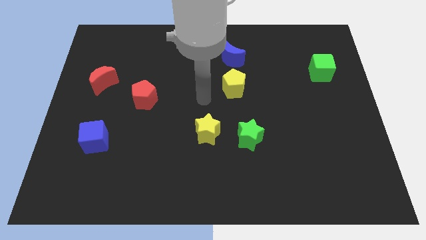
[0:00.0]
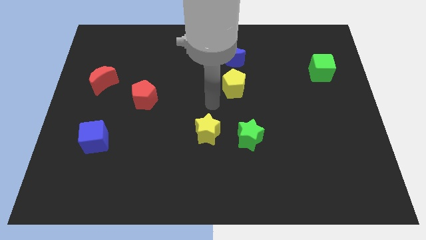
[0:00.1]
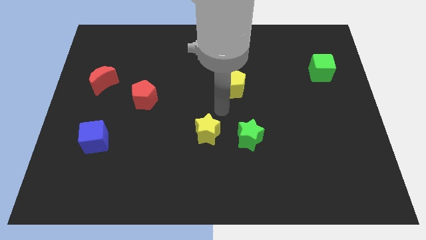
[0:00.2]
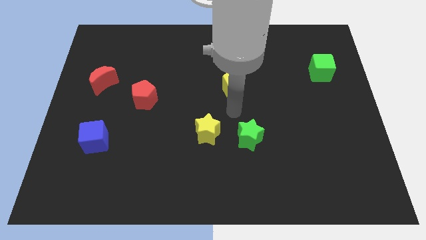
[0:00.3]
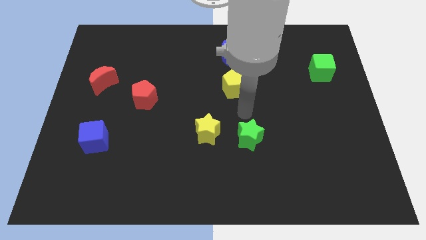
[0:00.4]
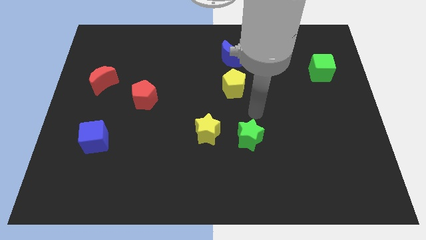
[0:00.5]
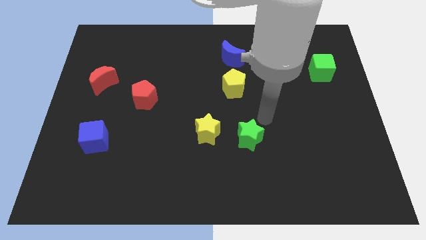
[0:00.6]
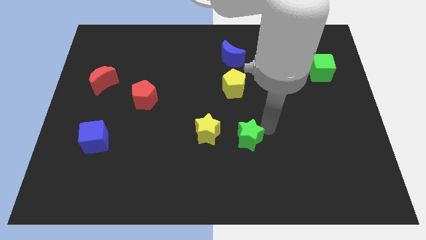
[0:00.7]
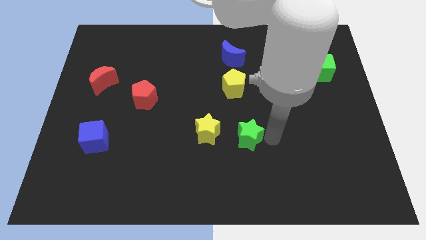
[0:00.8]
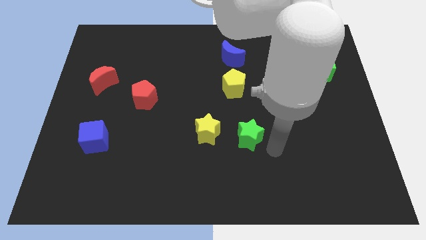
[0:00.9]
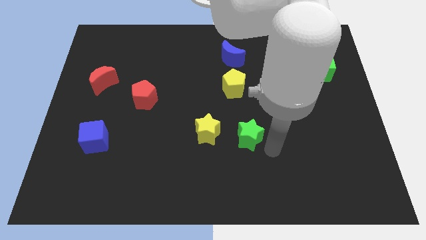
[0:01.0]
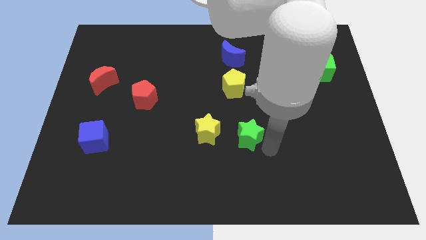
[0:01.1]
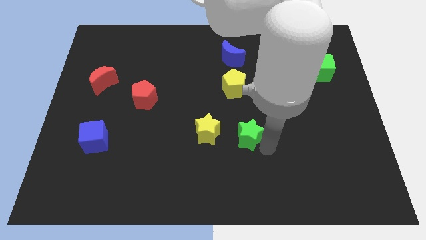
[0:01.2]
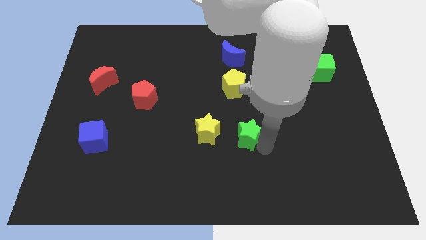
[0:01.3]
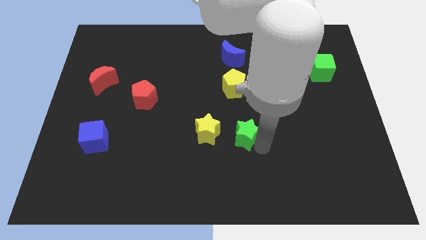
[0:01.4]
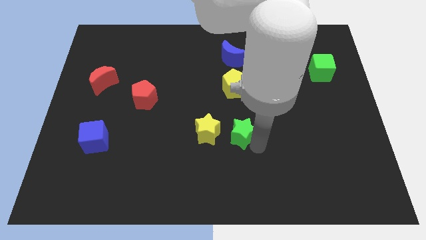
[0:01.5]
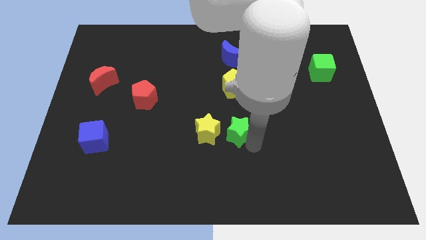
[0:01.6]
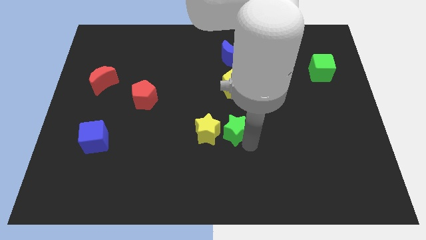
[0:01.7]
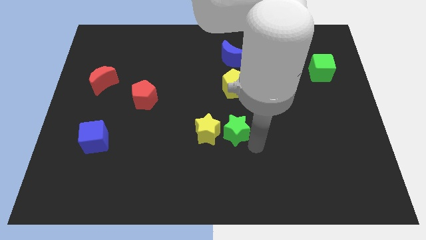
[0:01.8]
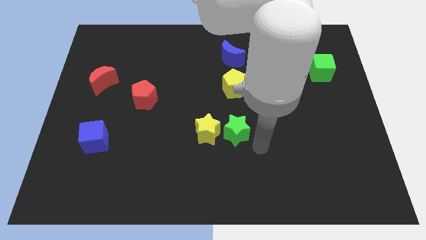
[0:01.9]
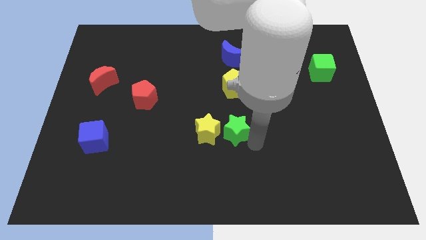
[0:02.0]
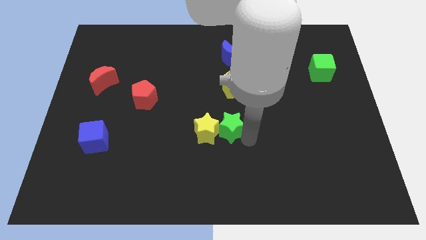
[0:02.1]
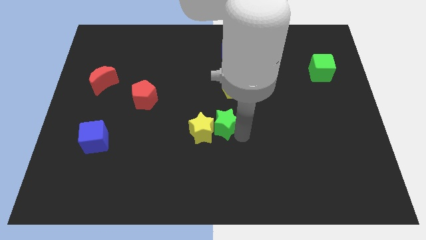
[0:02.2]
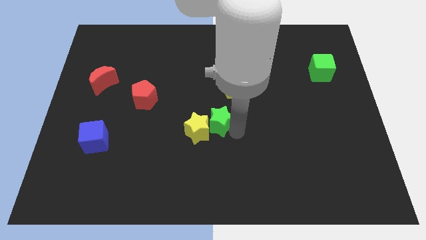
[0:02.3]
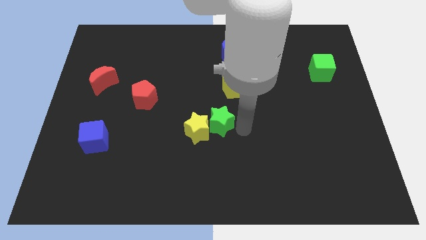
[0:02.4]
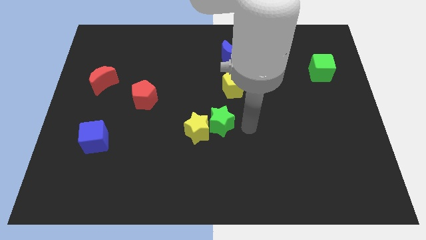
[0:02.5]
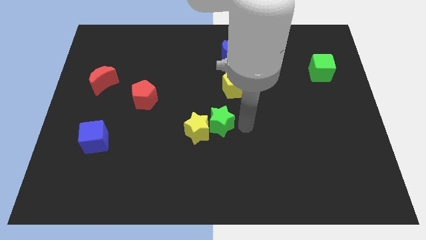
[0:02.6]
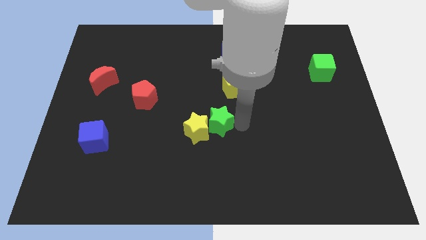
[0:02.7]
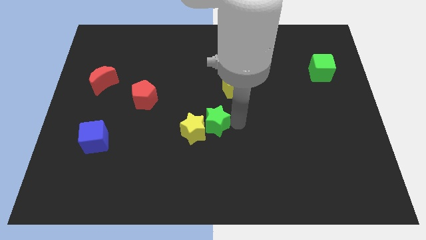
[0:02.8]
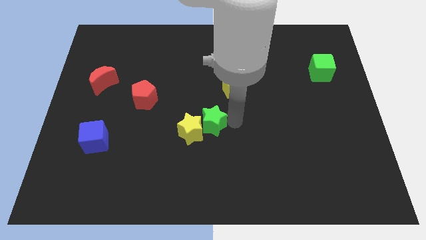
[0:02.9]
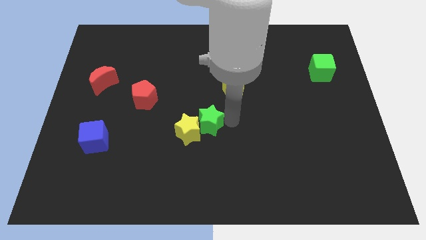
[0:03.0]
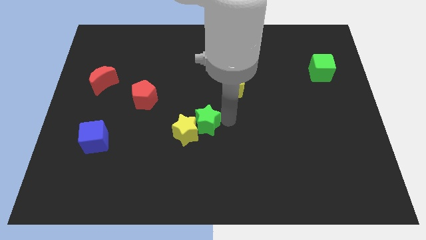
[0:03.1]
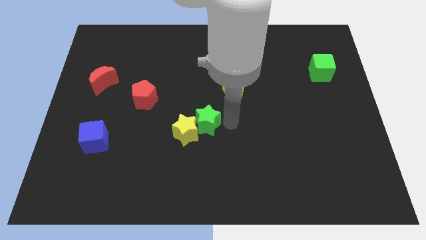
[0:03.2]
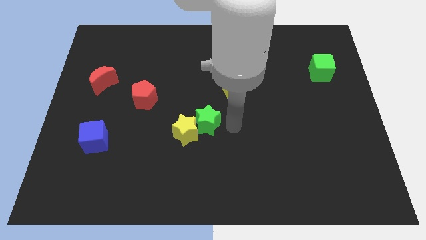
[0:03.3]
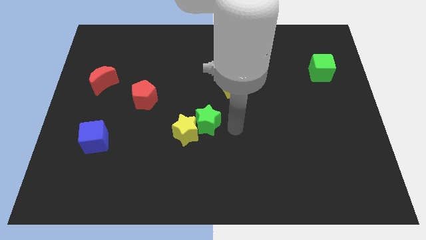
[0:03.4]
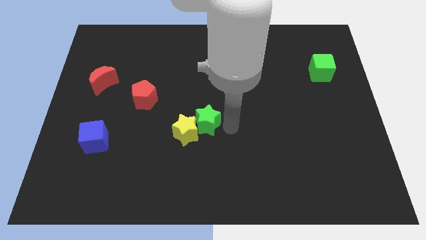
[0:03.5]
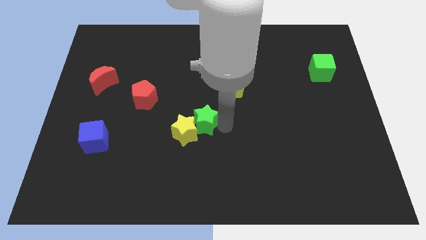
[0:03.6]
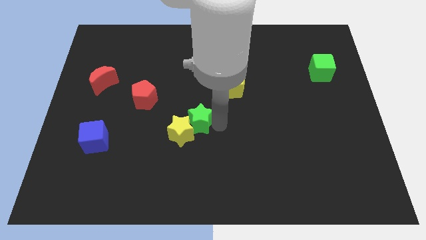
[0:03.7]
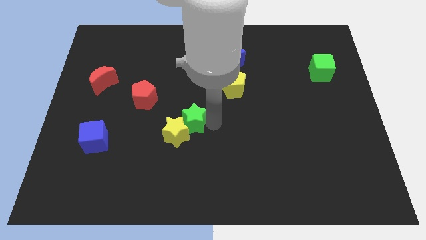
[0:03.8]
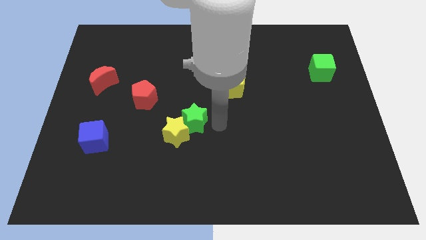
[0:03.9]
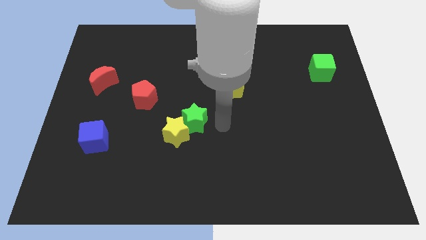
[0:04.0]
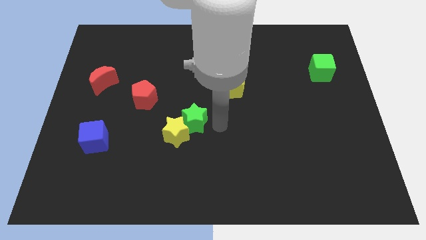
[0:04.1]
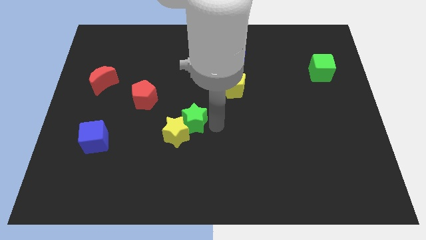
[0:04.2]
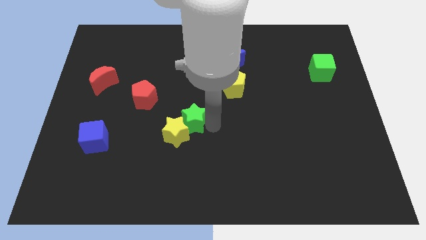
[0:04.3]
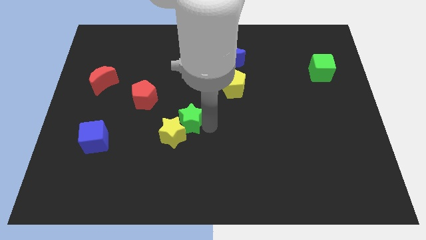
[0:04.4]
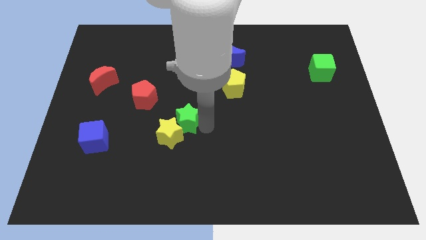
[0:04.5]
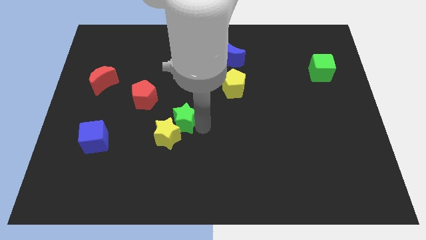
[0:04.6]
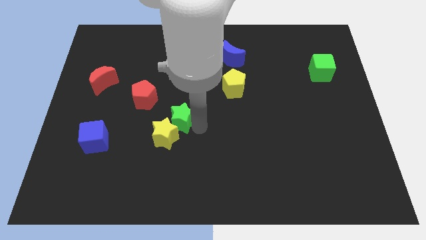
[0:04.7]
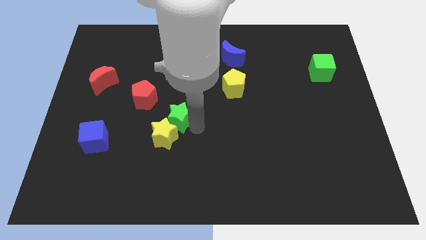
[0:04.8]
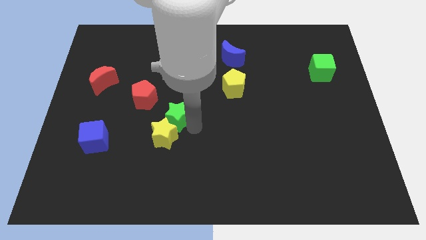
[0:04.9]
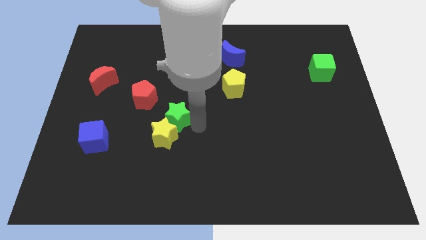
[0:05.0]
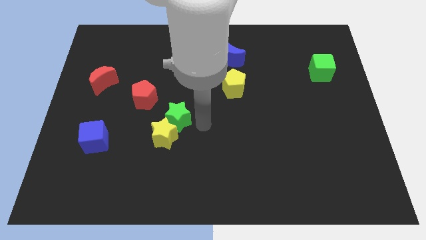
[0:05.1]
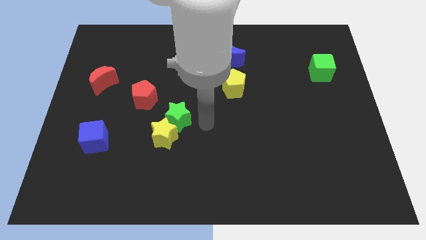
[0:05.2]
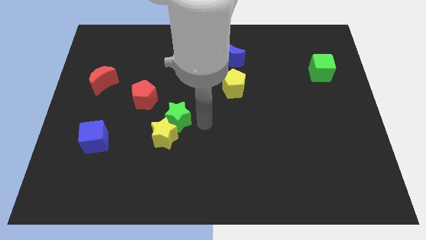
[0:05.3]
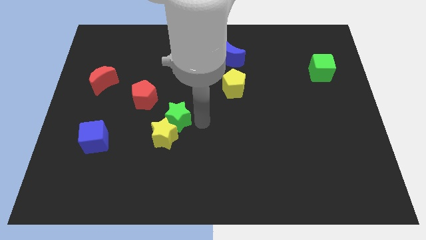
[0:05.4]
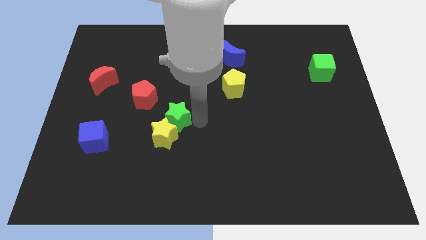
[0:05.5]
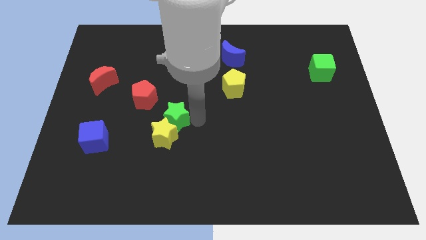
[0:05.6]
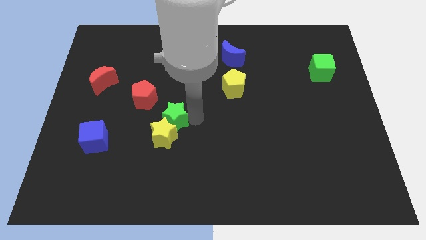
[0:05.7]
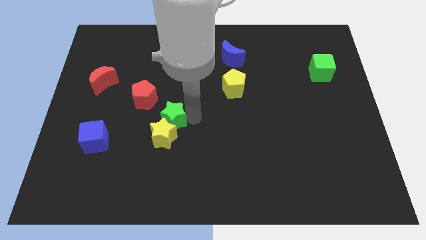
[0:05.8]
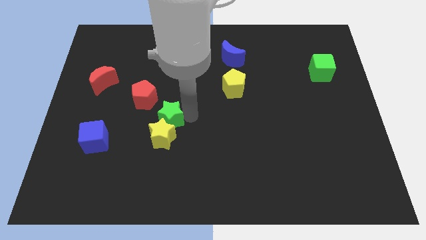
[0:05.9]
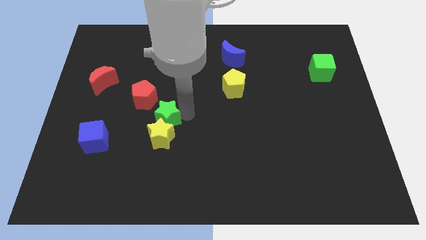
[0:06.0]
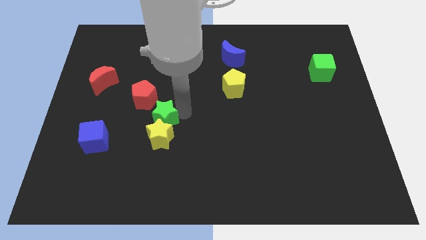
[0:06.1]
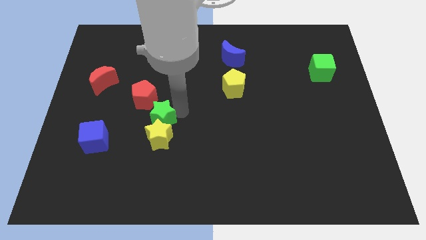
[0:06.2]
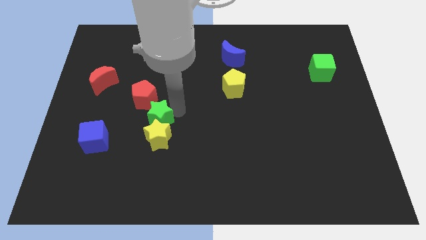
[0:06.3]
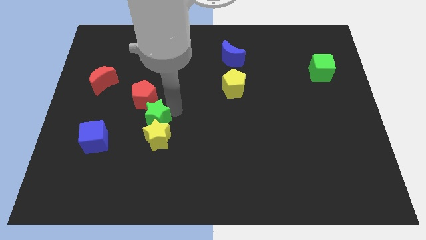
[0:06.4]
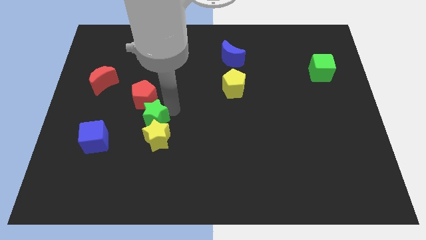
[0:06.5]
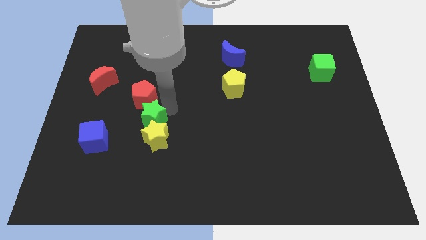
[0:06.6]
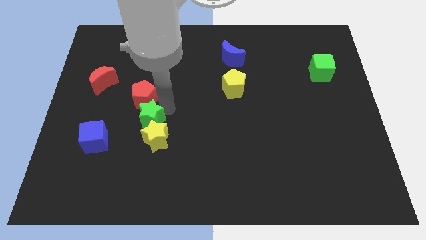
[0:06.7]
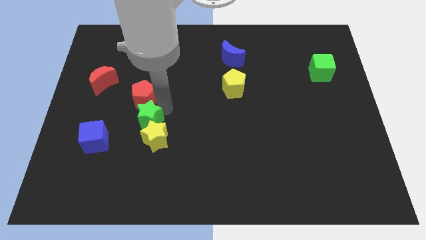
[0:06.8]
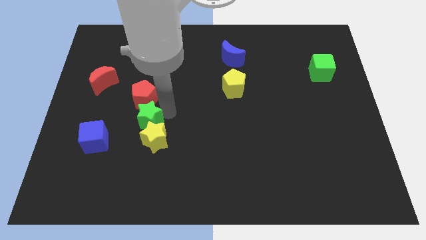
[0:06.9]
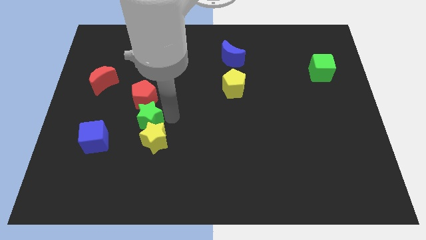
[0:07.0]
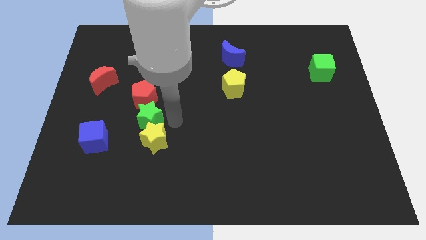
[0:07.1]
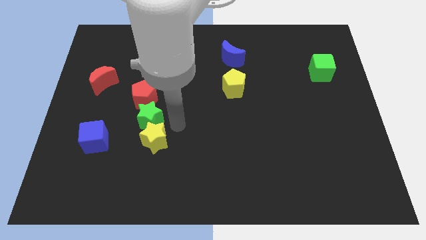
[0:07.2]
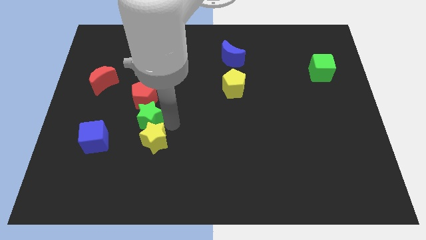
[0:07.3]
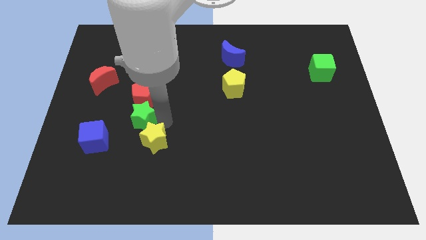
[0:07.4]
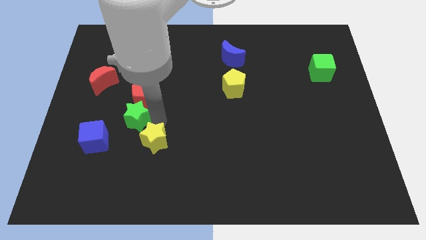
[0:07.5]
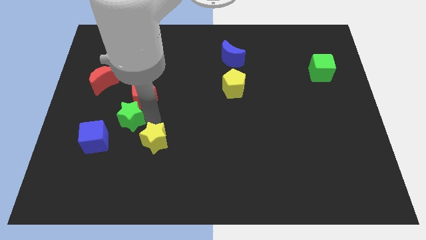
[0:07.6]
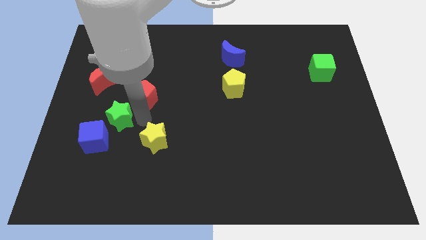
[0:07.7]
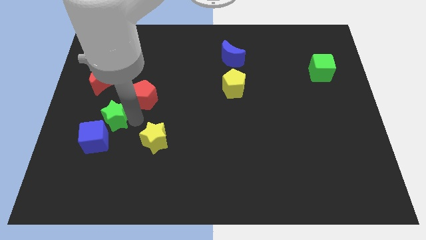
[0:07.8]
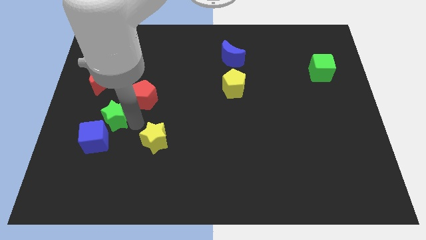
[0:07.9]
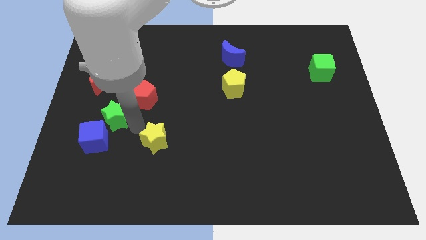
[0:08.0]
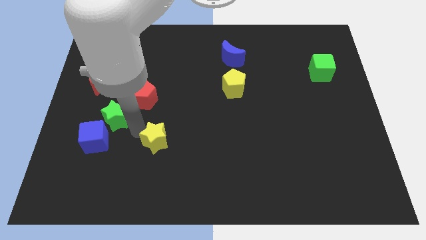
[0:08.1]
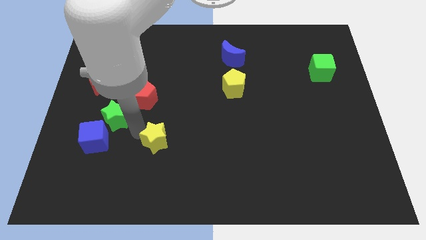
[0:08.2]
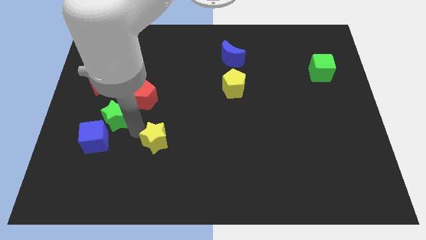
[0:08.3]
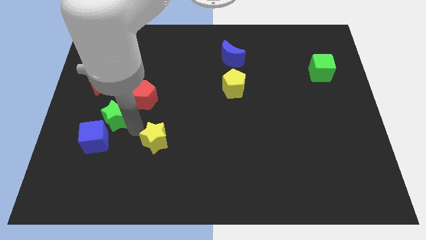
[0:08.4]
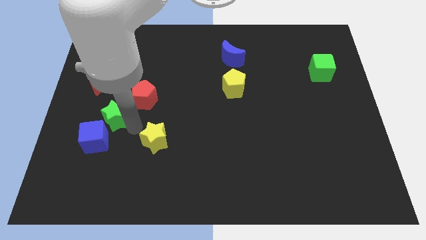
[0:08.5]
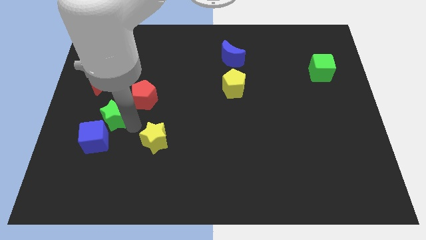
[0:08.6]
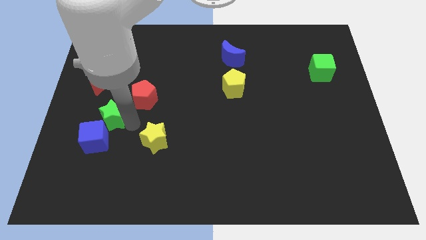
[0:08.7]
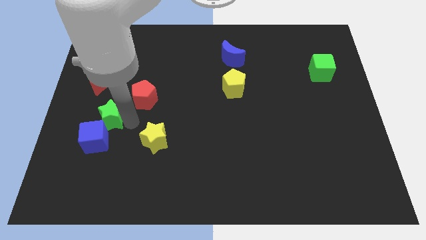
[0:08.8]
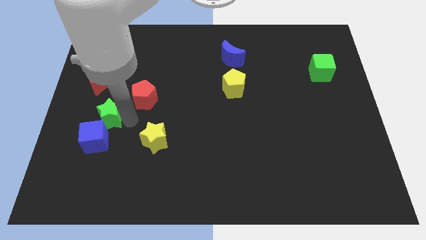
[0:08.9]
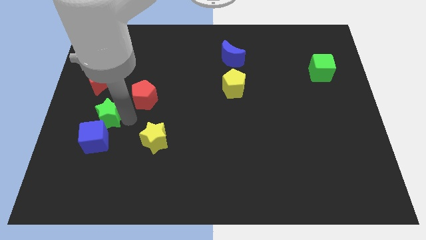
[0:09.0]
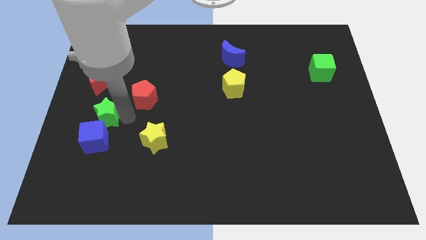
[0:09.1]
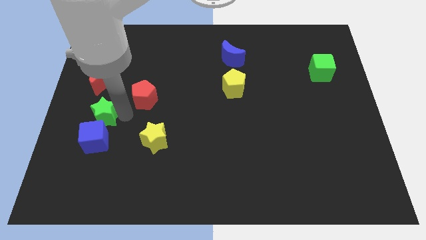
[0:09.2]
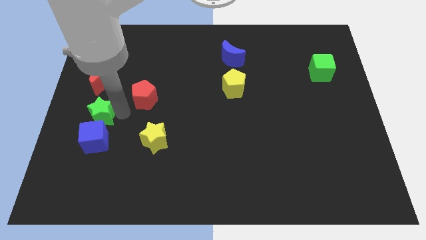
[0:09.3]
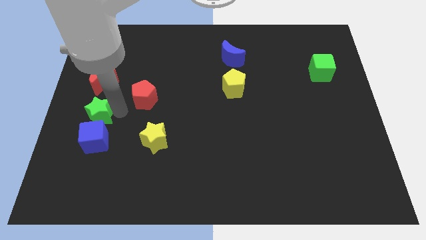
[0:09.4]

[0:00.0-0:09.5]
slide the green star to the left side
